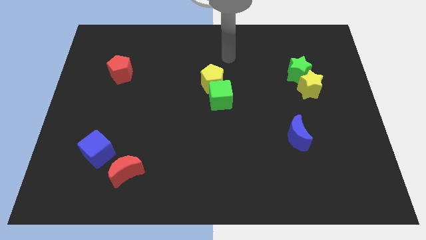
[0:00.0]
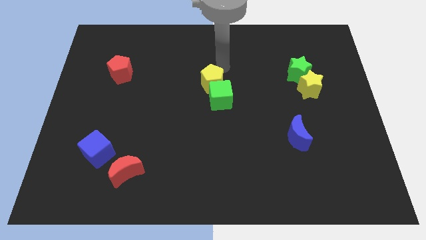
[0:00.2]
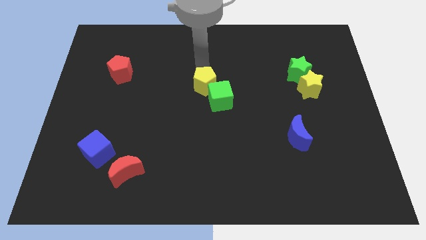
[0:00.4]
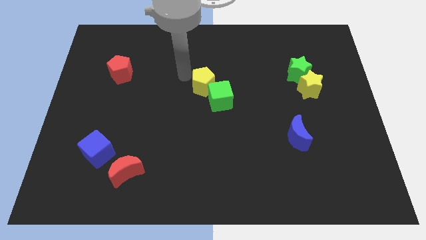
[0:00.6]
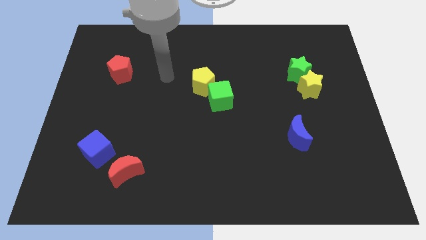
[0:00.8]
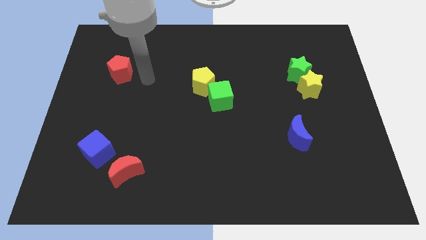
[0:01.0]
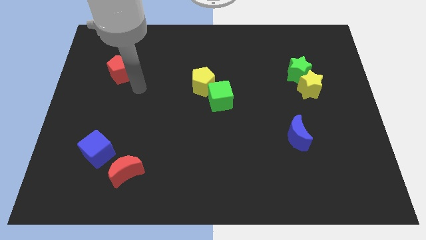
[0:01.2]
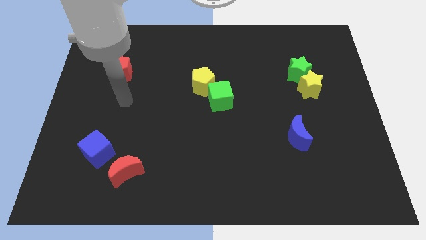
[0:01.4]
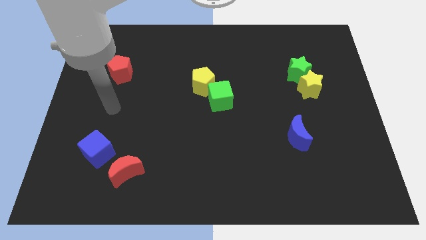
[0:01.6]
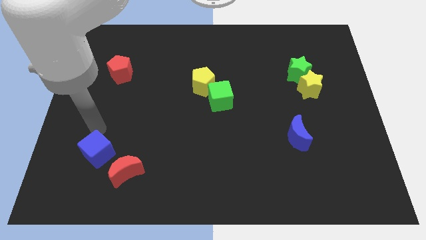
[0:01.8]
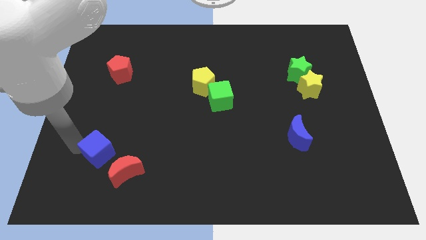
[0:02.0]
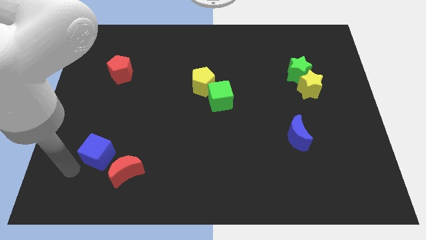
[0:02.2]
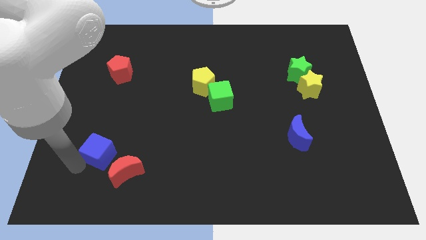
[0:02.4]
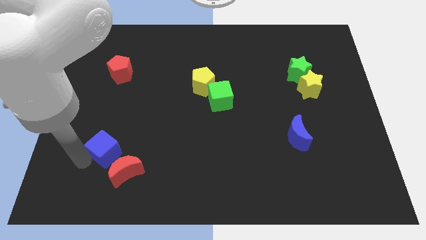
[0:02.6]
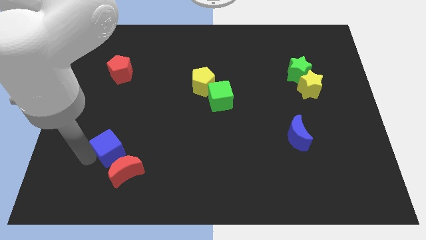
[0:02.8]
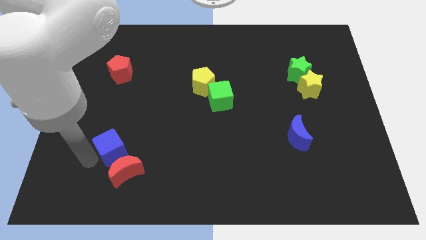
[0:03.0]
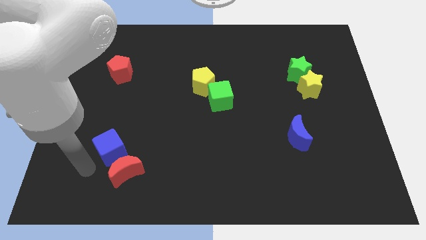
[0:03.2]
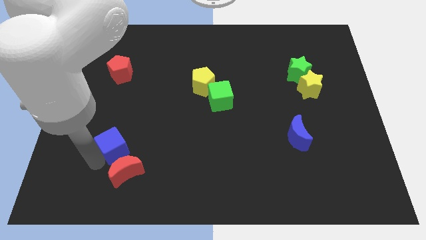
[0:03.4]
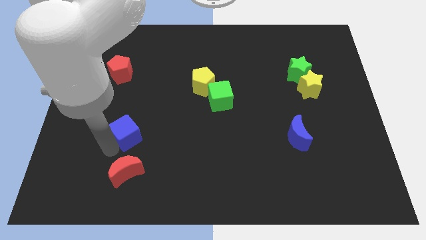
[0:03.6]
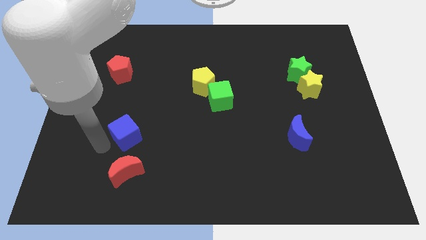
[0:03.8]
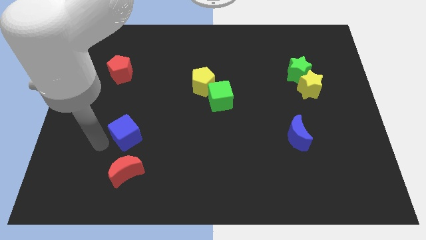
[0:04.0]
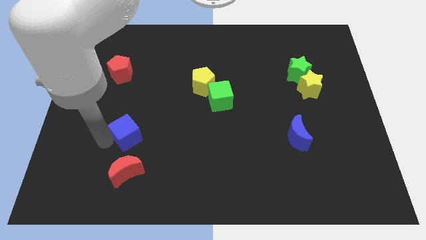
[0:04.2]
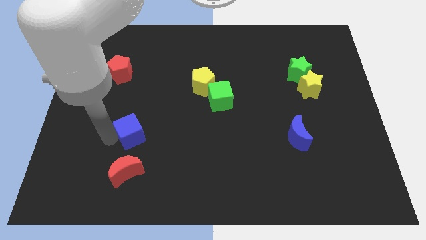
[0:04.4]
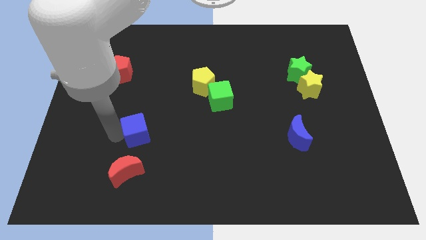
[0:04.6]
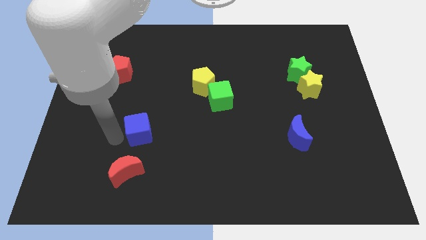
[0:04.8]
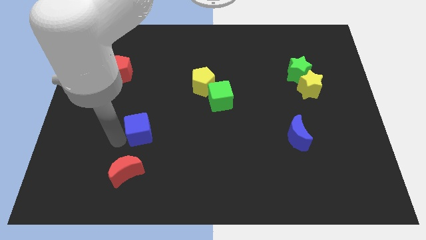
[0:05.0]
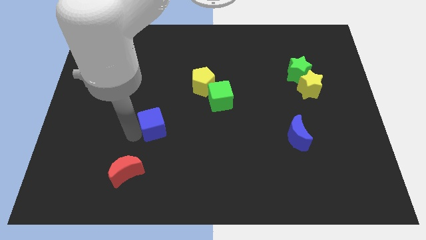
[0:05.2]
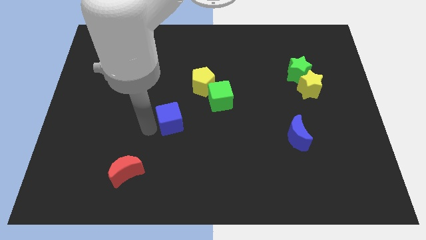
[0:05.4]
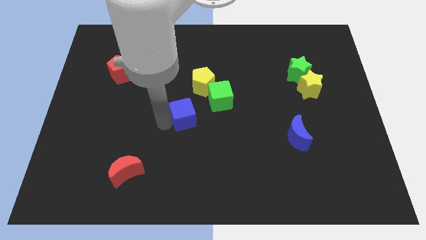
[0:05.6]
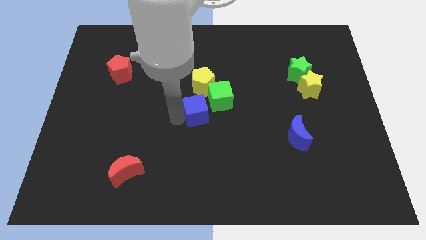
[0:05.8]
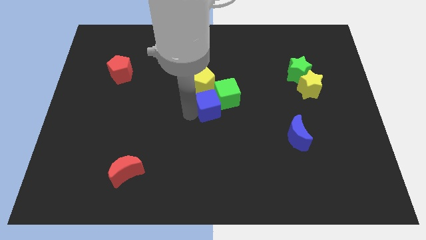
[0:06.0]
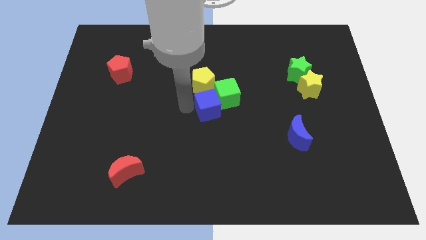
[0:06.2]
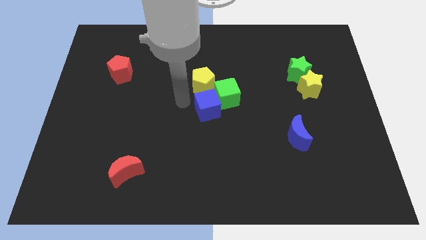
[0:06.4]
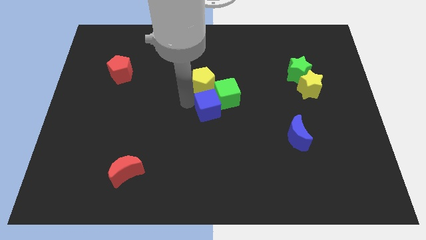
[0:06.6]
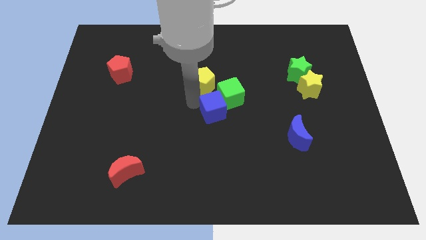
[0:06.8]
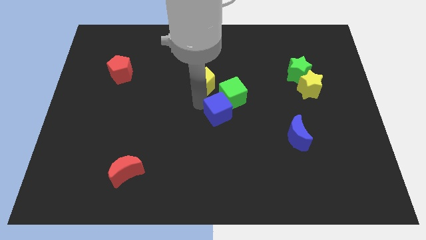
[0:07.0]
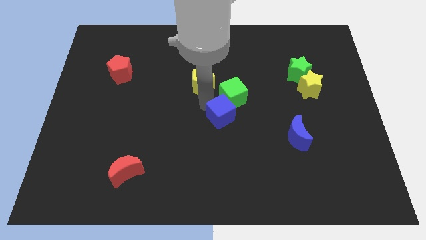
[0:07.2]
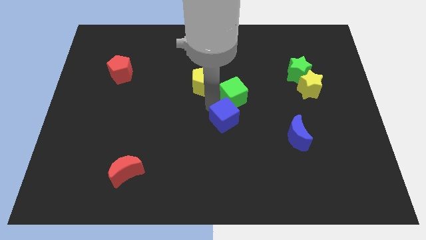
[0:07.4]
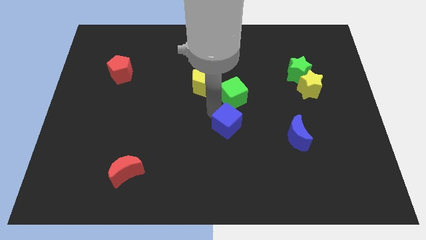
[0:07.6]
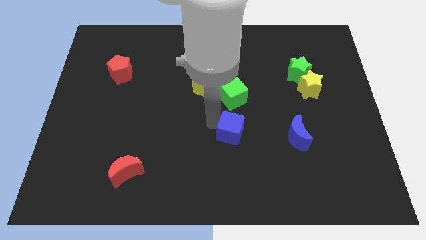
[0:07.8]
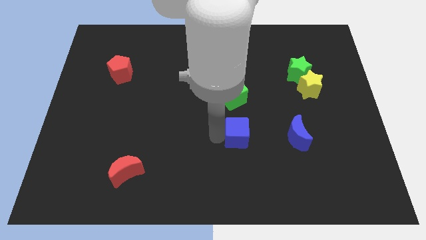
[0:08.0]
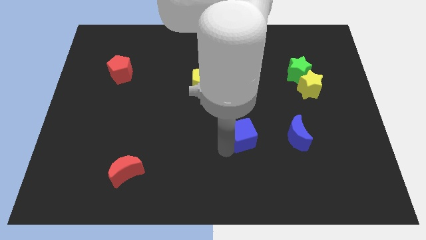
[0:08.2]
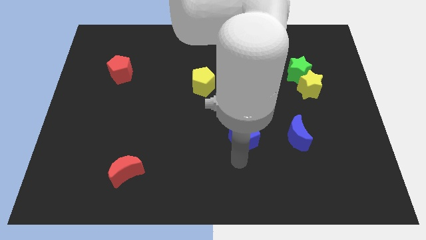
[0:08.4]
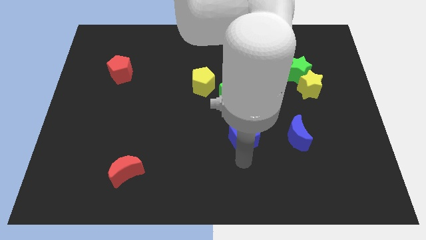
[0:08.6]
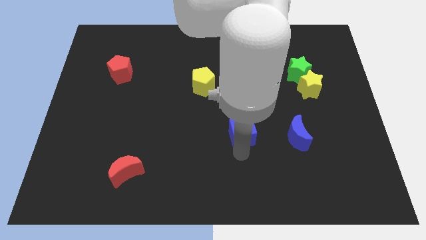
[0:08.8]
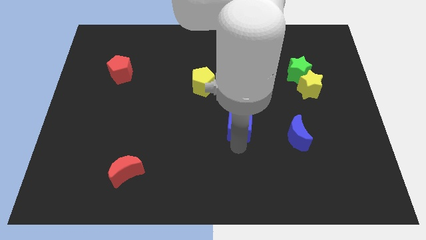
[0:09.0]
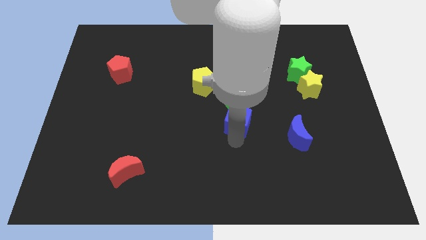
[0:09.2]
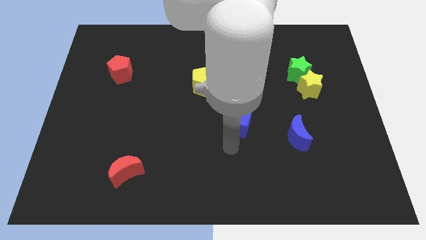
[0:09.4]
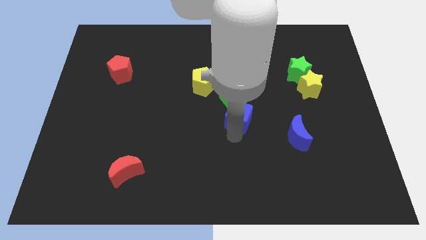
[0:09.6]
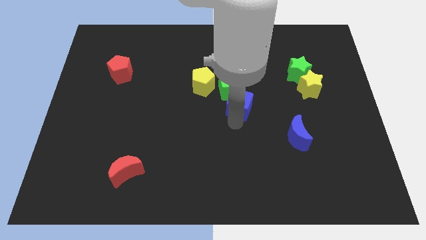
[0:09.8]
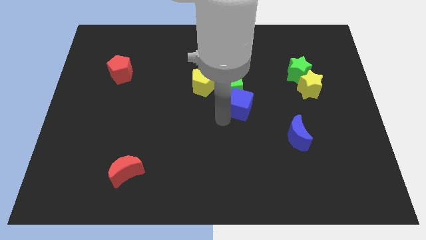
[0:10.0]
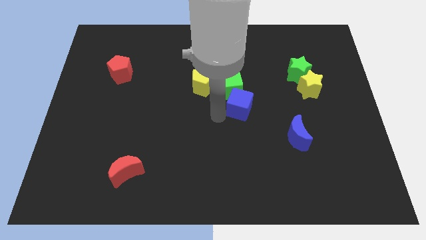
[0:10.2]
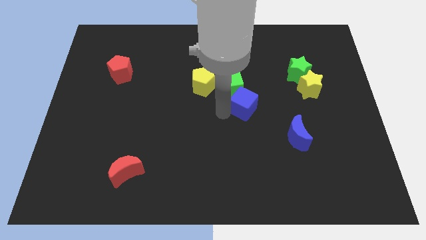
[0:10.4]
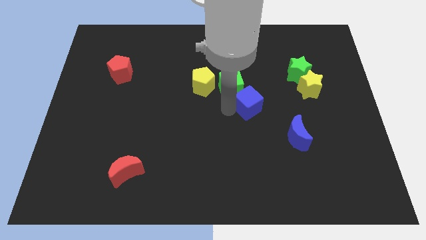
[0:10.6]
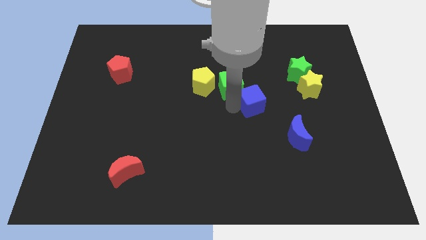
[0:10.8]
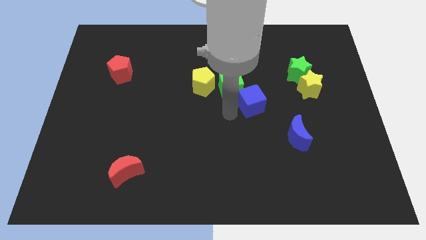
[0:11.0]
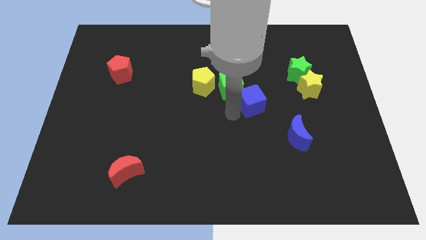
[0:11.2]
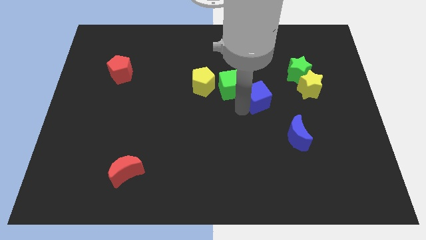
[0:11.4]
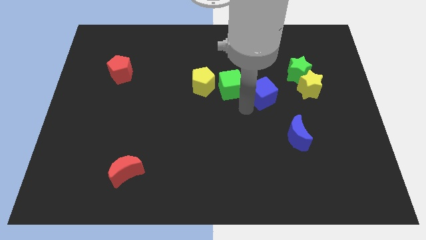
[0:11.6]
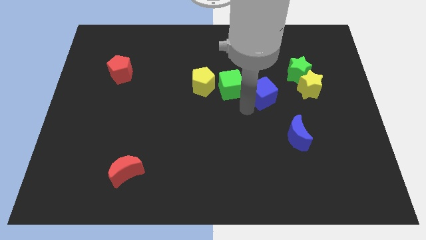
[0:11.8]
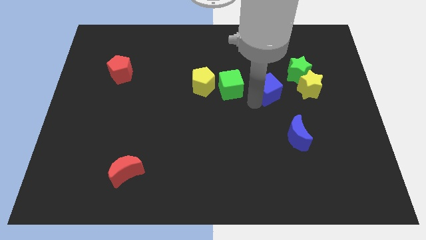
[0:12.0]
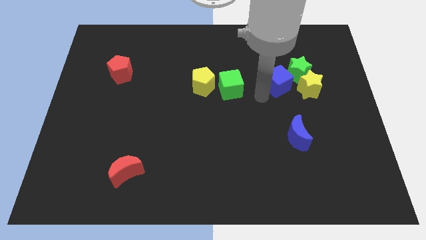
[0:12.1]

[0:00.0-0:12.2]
slide the blue cube towards the green star

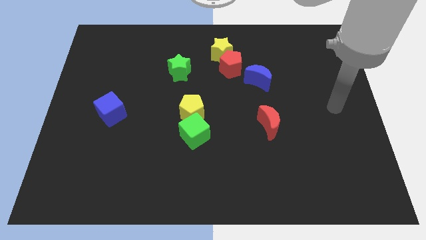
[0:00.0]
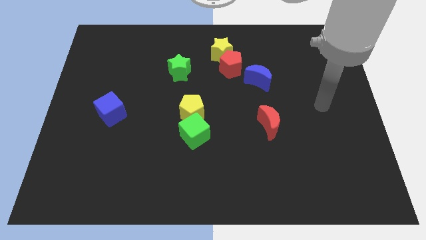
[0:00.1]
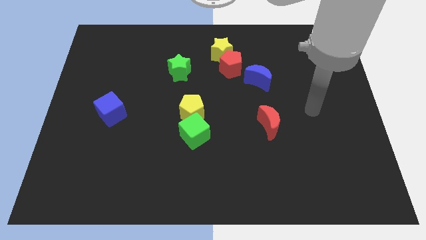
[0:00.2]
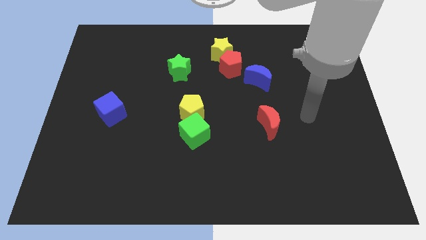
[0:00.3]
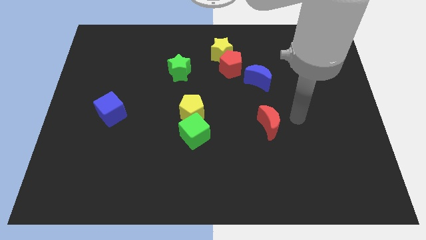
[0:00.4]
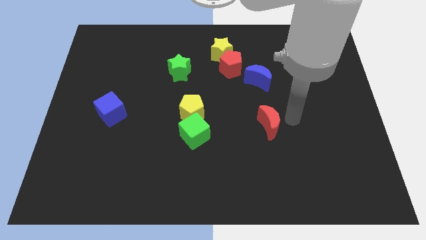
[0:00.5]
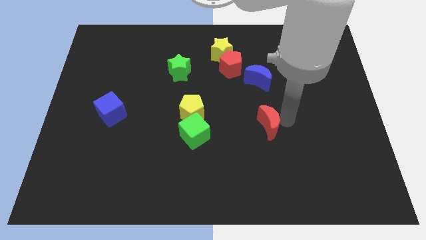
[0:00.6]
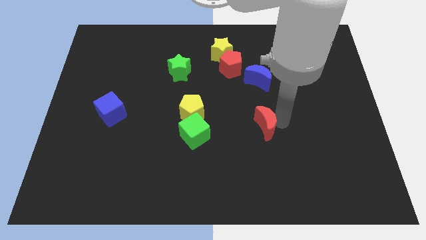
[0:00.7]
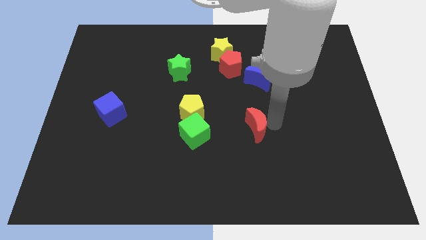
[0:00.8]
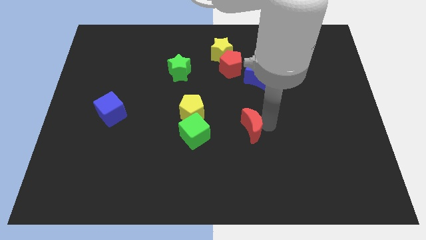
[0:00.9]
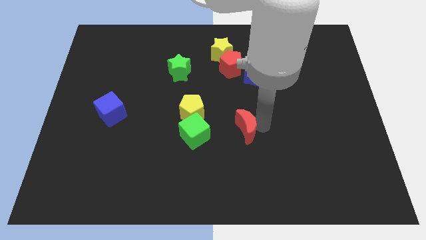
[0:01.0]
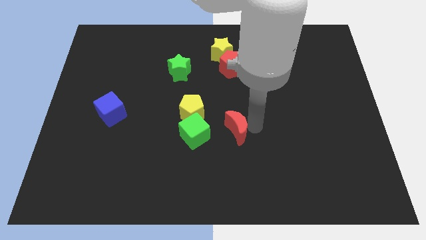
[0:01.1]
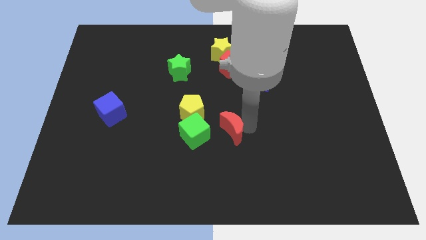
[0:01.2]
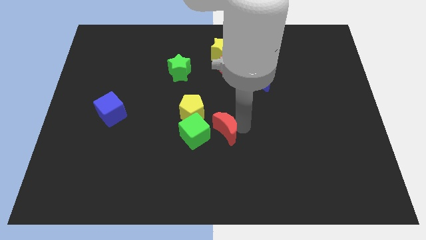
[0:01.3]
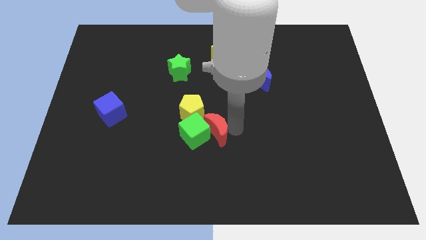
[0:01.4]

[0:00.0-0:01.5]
put the red moon to the green cube
